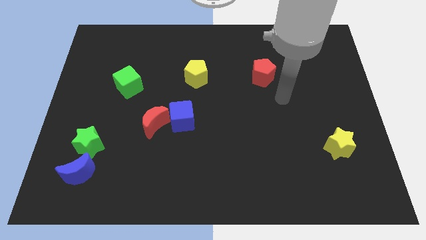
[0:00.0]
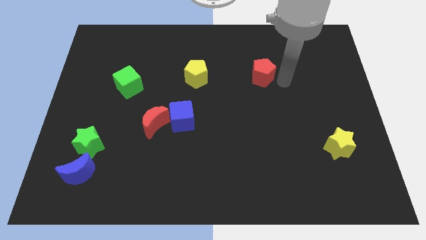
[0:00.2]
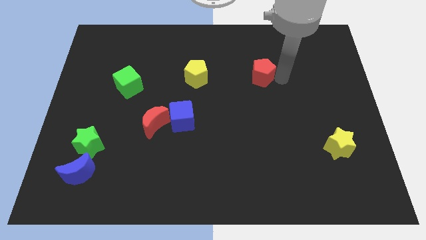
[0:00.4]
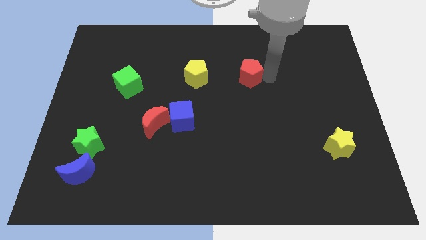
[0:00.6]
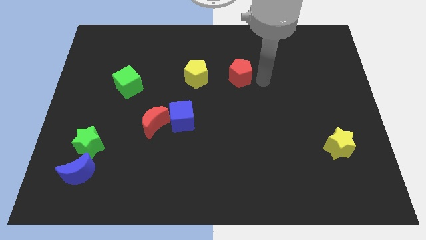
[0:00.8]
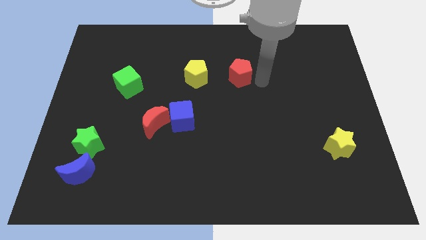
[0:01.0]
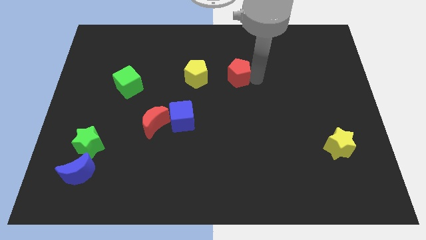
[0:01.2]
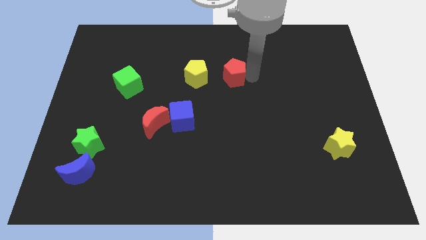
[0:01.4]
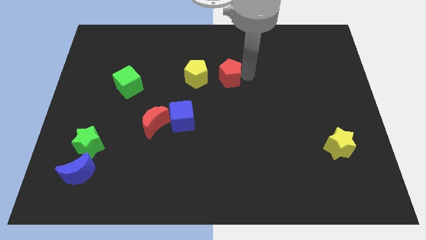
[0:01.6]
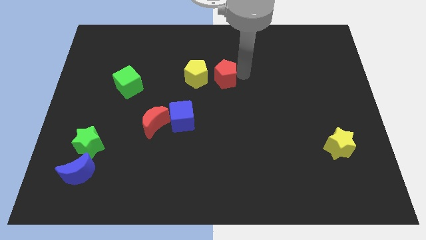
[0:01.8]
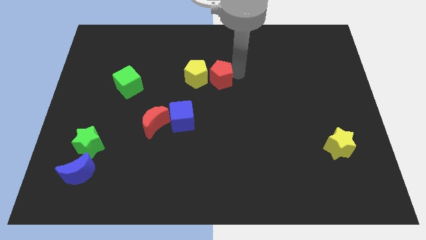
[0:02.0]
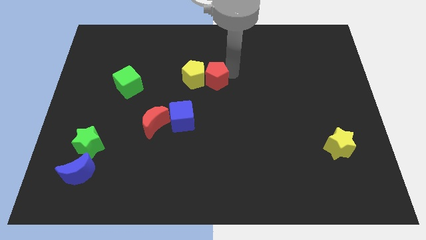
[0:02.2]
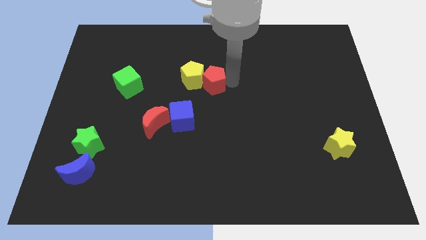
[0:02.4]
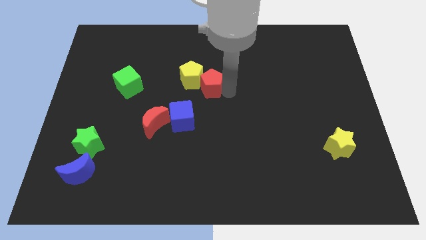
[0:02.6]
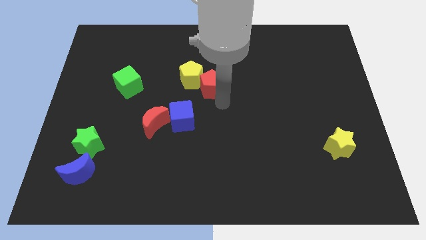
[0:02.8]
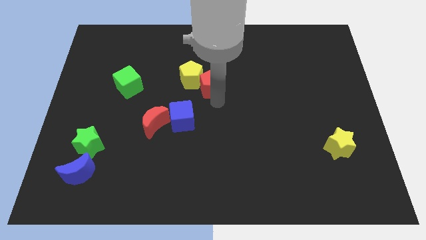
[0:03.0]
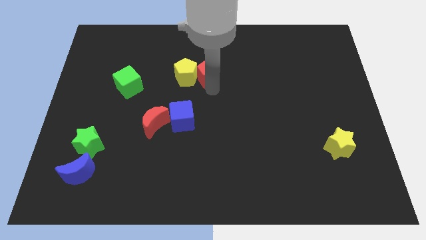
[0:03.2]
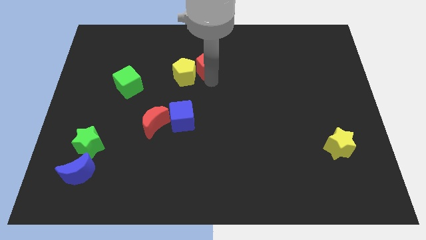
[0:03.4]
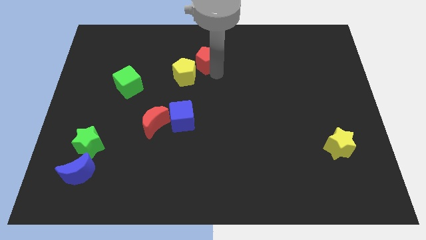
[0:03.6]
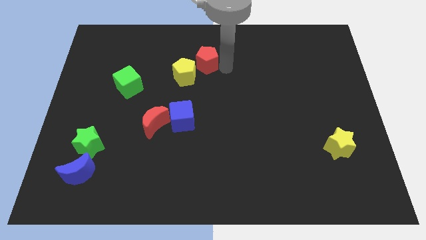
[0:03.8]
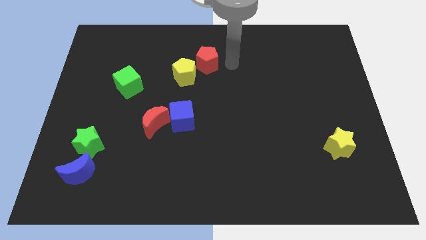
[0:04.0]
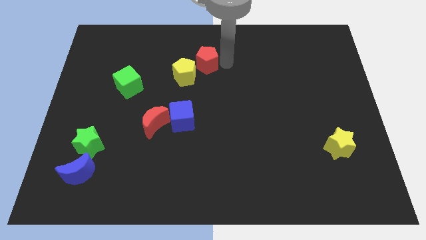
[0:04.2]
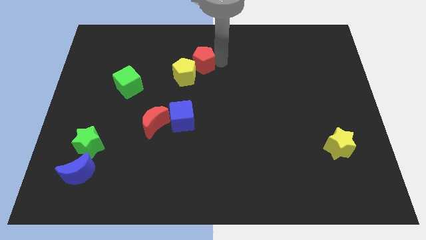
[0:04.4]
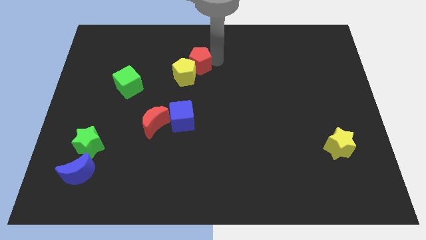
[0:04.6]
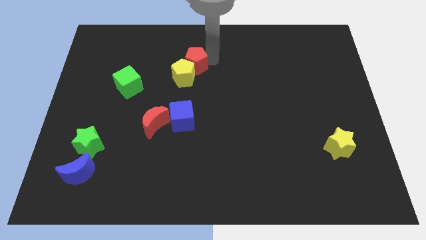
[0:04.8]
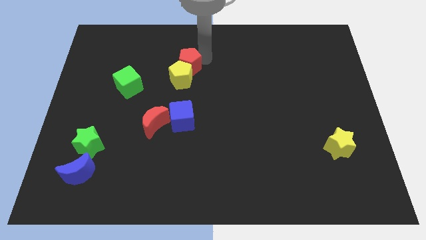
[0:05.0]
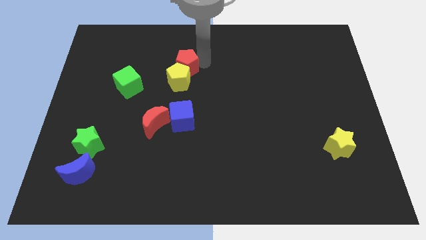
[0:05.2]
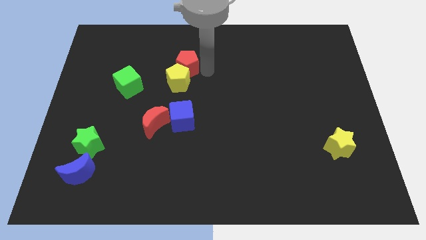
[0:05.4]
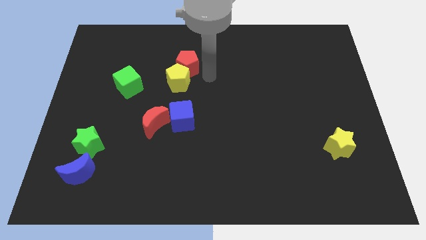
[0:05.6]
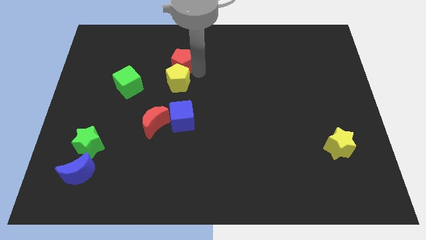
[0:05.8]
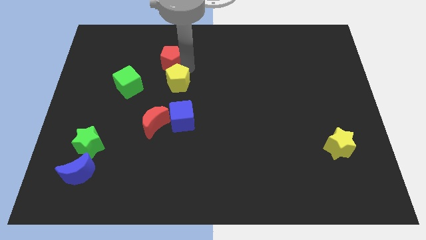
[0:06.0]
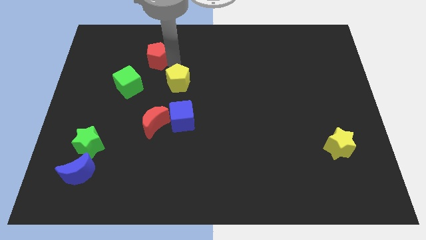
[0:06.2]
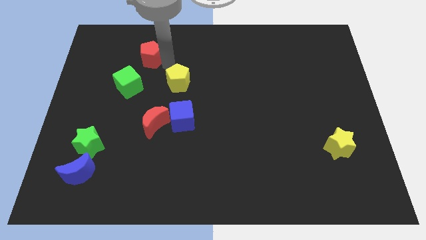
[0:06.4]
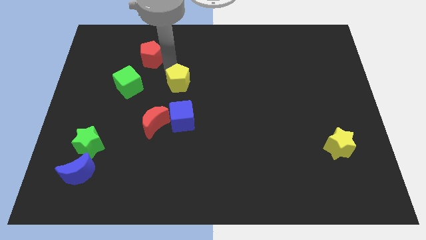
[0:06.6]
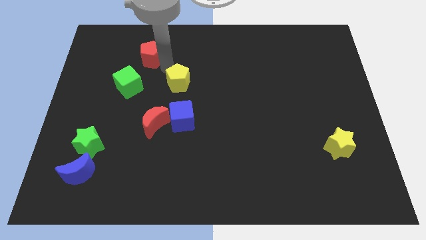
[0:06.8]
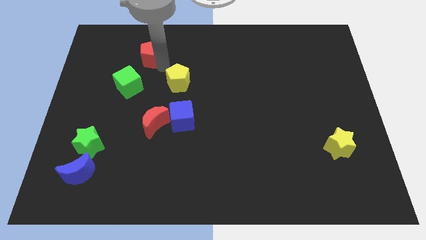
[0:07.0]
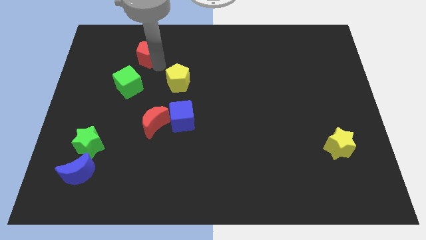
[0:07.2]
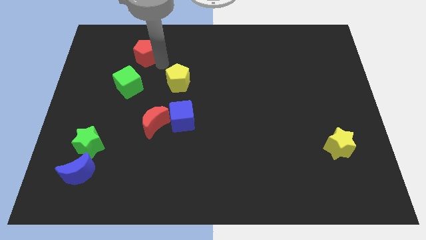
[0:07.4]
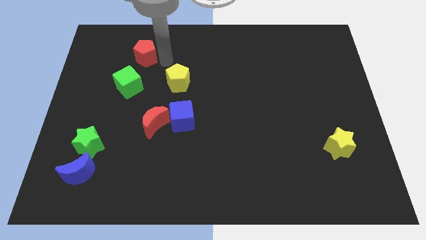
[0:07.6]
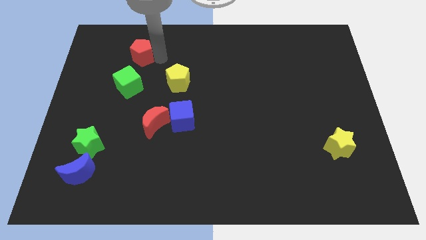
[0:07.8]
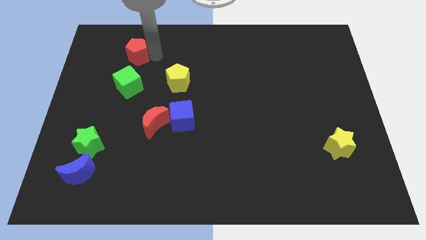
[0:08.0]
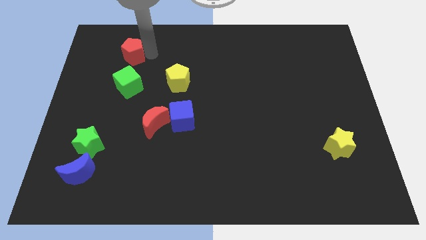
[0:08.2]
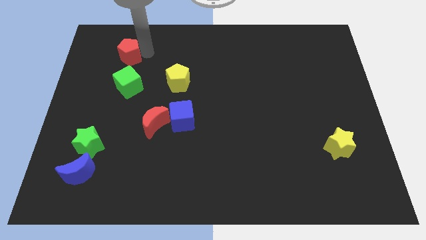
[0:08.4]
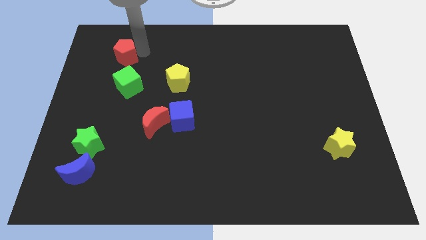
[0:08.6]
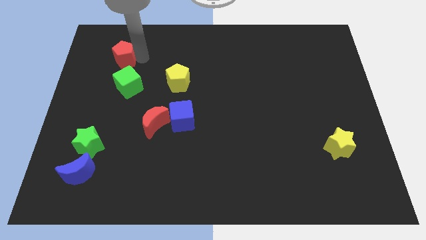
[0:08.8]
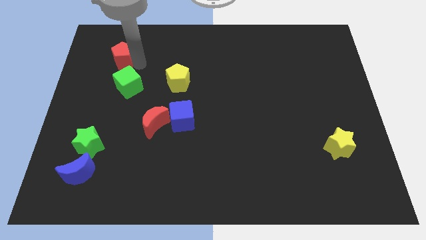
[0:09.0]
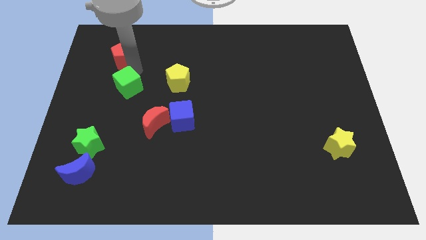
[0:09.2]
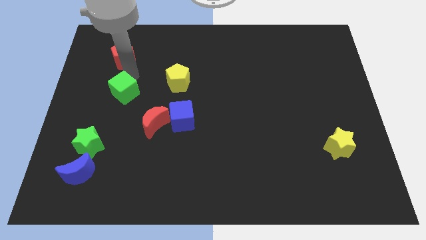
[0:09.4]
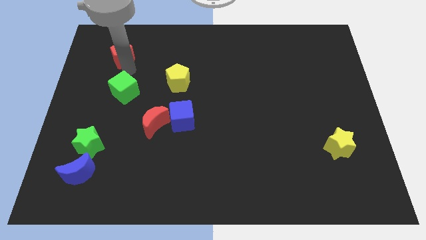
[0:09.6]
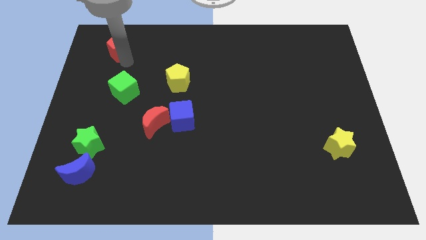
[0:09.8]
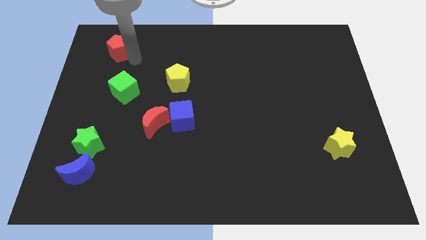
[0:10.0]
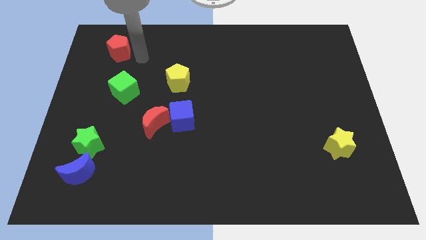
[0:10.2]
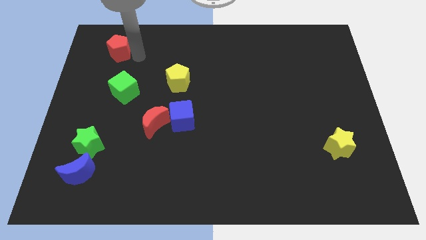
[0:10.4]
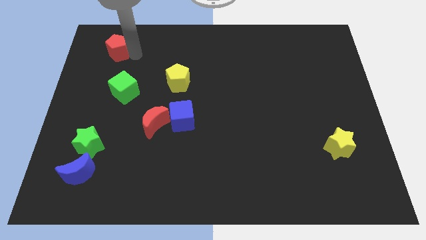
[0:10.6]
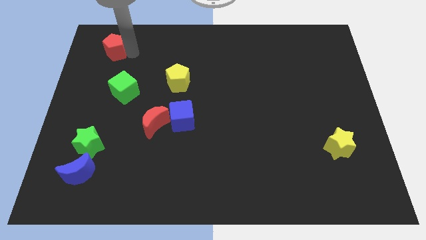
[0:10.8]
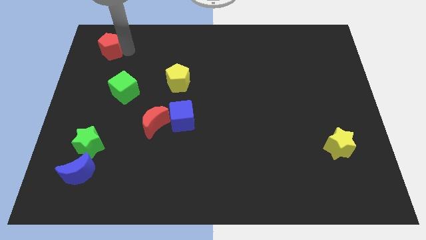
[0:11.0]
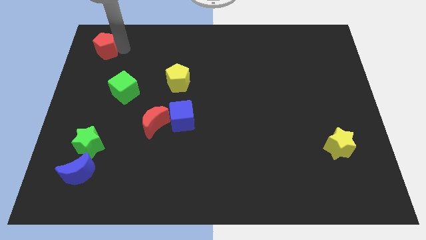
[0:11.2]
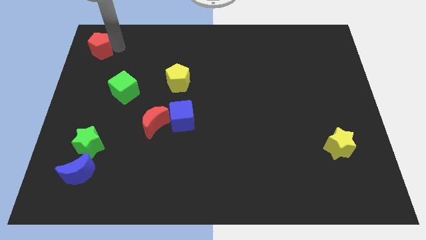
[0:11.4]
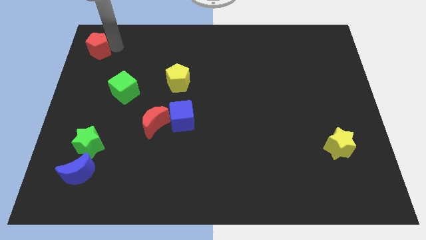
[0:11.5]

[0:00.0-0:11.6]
slide the red pentagon to the top left of the board

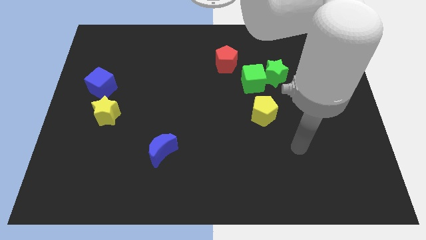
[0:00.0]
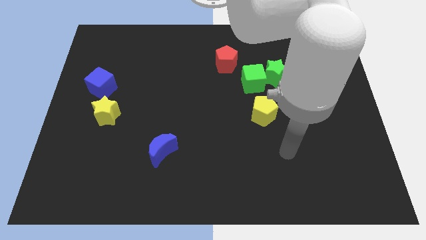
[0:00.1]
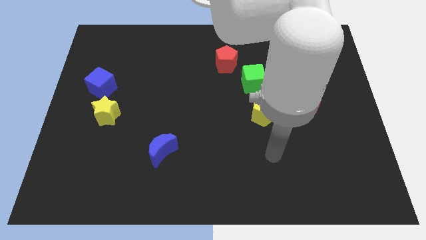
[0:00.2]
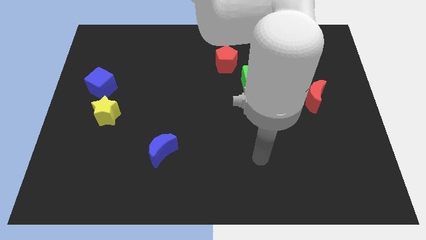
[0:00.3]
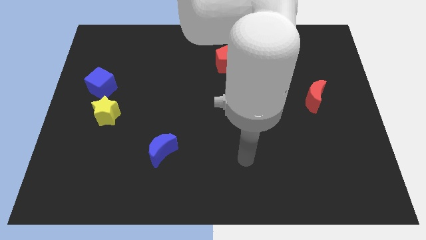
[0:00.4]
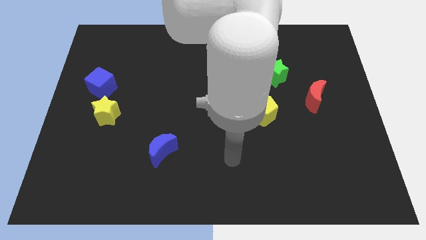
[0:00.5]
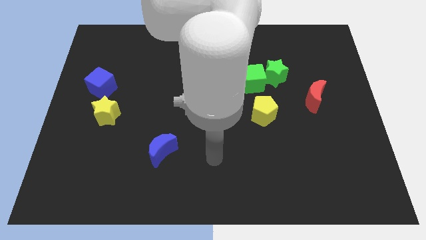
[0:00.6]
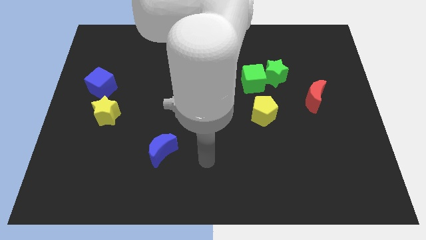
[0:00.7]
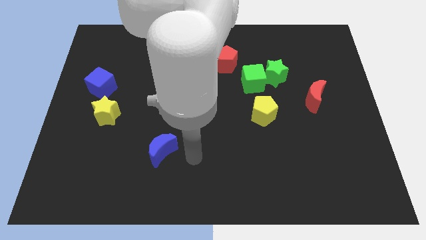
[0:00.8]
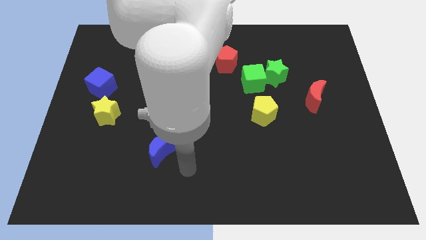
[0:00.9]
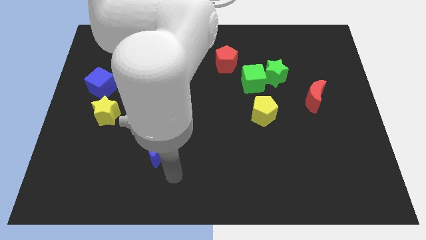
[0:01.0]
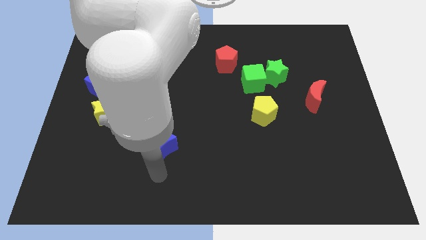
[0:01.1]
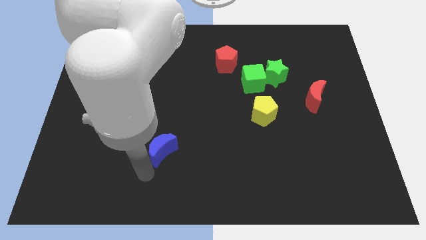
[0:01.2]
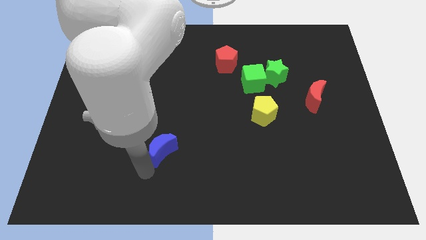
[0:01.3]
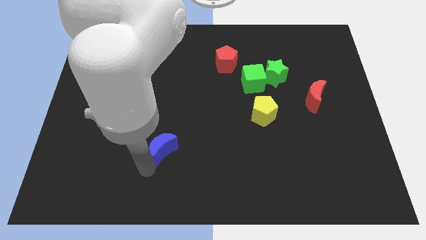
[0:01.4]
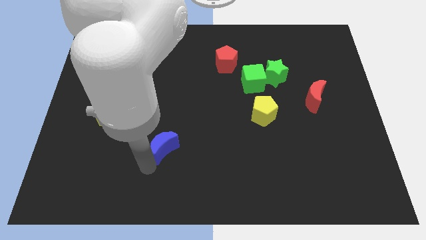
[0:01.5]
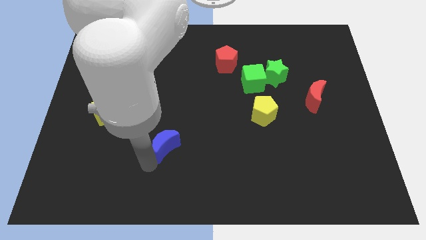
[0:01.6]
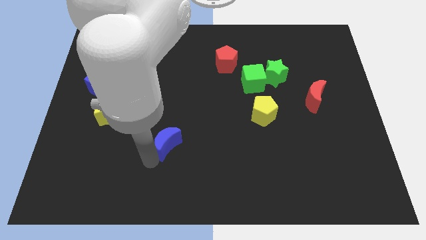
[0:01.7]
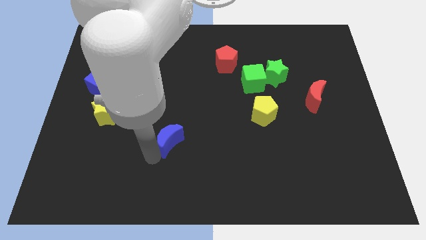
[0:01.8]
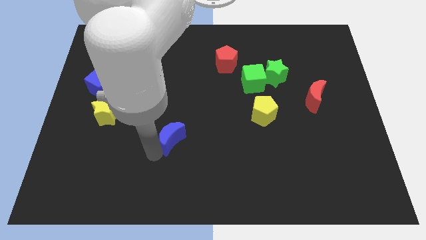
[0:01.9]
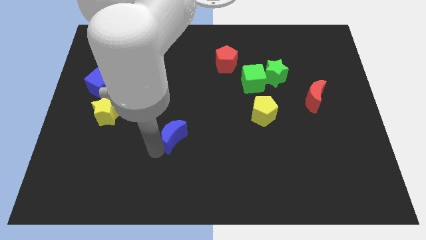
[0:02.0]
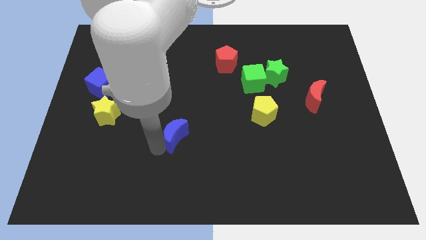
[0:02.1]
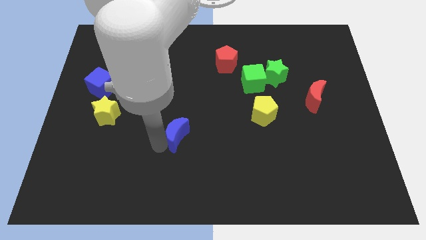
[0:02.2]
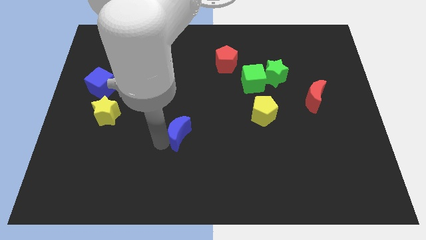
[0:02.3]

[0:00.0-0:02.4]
push the blue moon to the middle

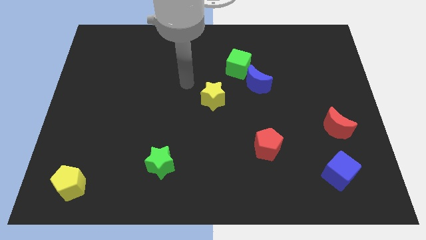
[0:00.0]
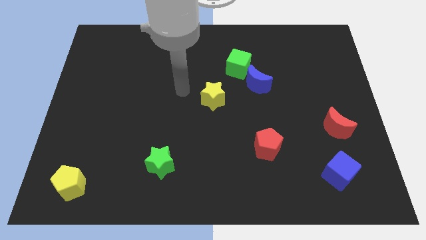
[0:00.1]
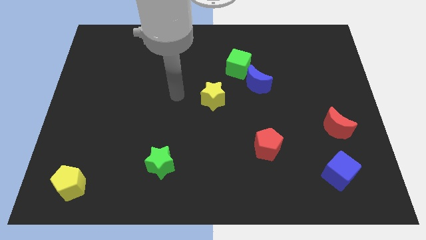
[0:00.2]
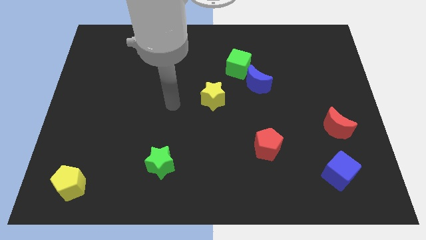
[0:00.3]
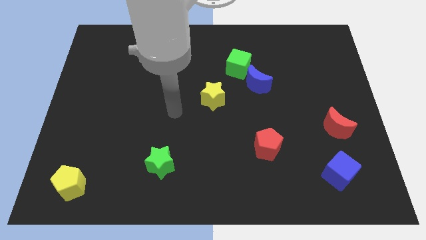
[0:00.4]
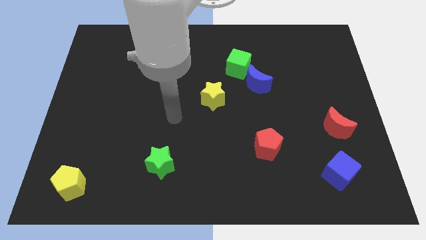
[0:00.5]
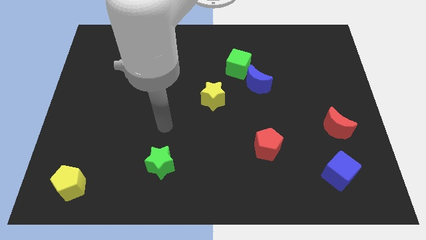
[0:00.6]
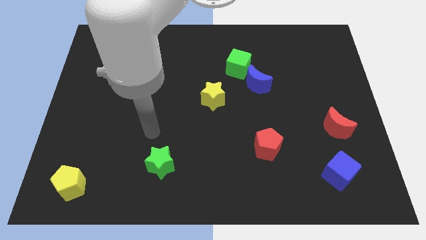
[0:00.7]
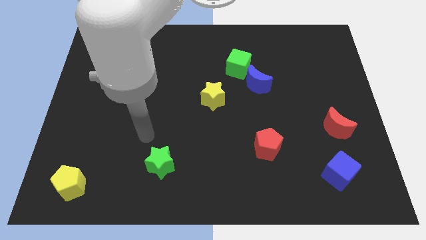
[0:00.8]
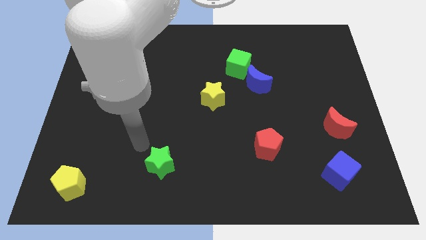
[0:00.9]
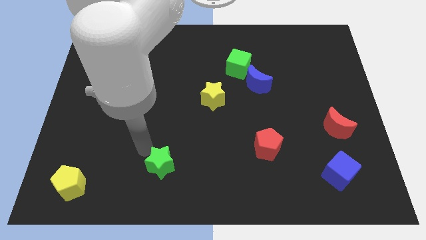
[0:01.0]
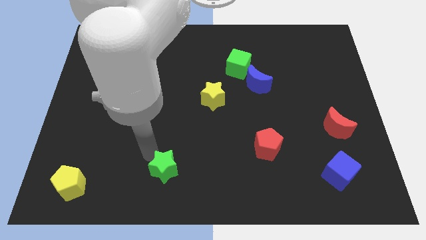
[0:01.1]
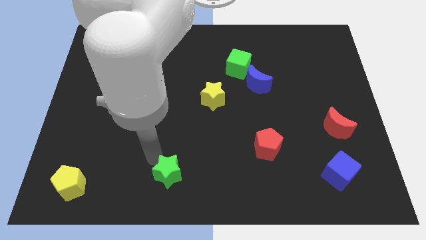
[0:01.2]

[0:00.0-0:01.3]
move the green star to the bottom
